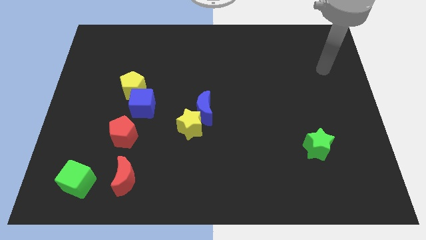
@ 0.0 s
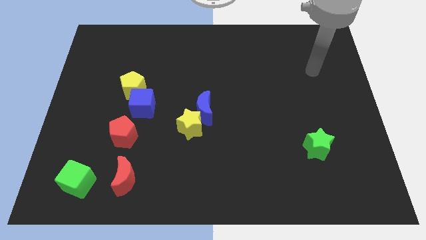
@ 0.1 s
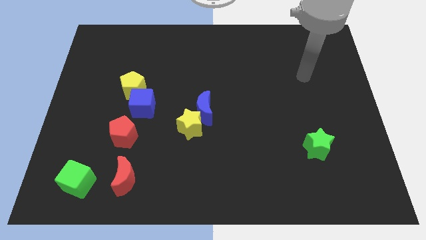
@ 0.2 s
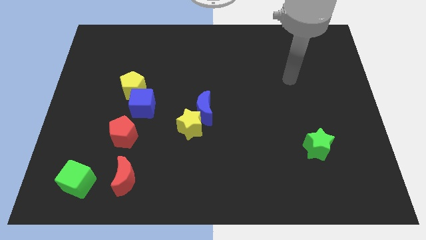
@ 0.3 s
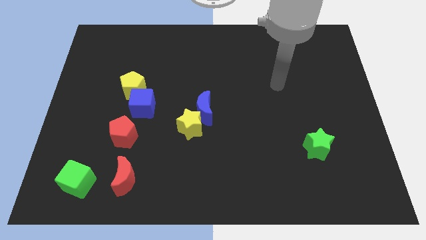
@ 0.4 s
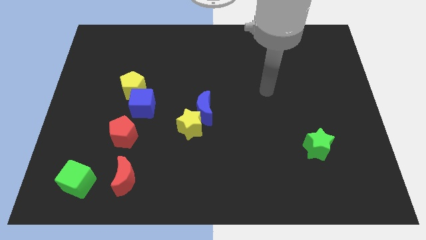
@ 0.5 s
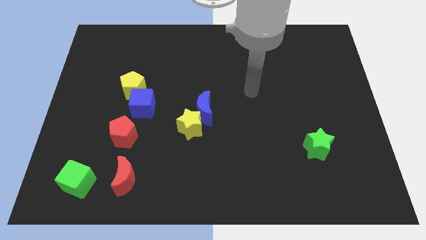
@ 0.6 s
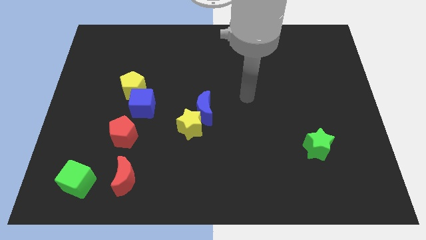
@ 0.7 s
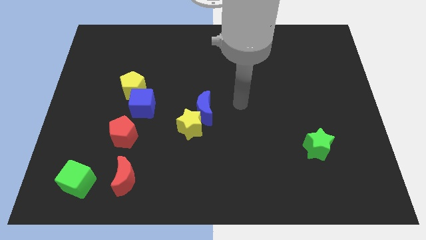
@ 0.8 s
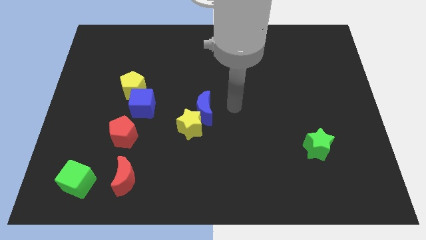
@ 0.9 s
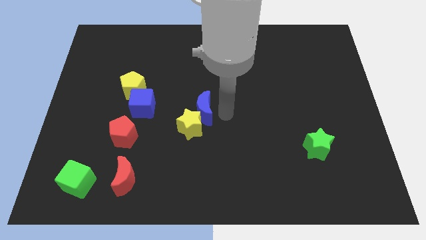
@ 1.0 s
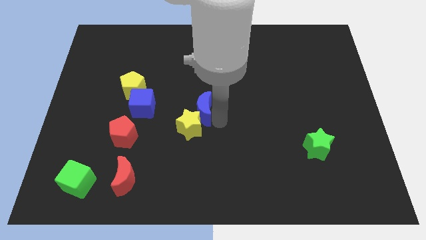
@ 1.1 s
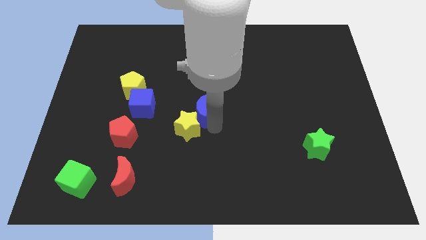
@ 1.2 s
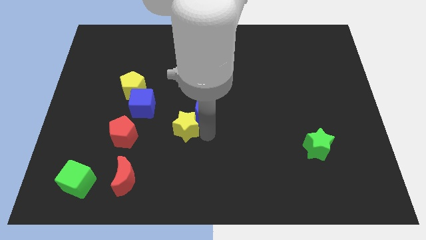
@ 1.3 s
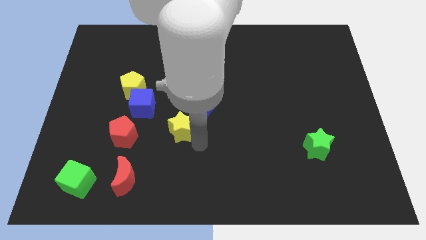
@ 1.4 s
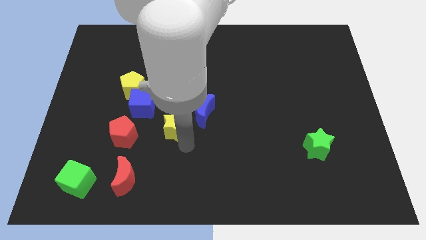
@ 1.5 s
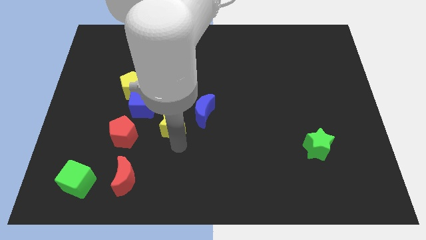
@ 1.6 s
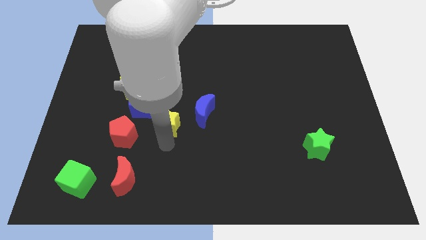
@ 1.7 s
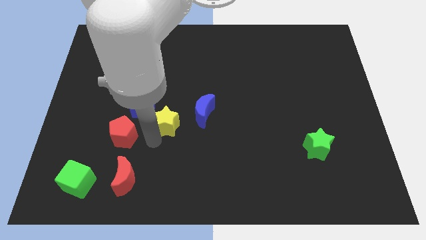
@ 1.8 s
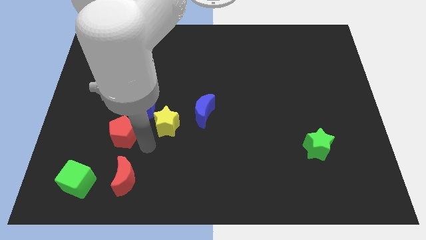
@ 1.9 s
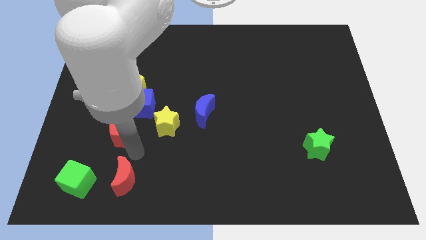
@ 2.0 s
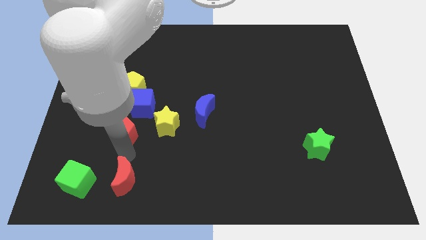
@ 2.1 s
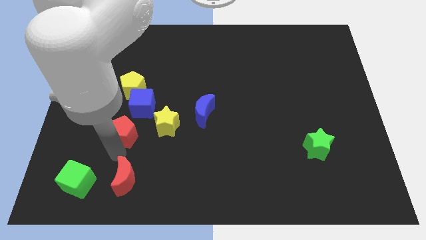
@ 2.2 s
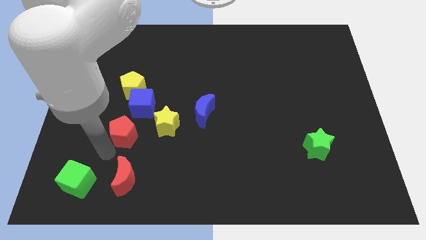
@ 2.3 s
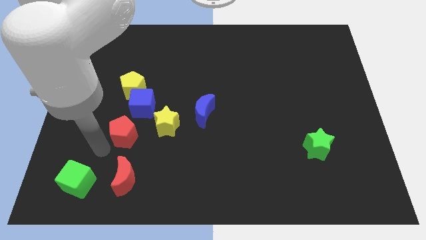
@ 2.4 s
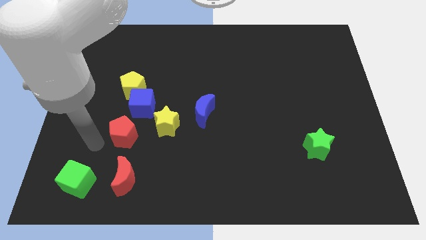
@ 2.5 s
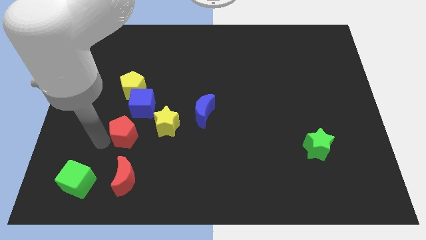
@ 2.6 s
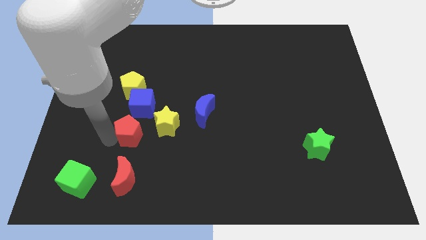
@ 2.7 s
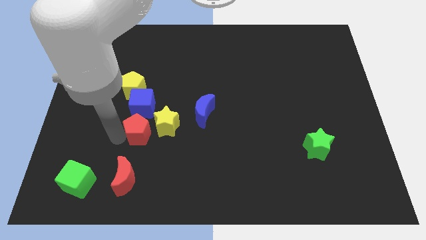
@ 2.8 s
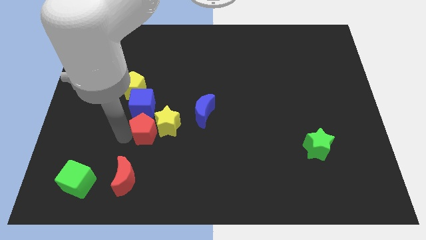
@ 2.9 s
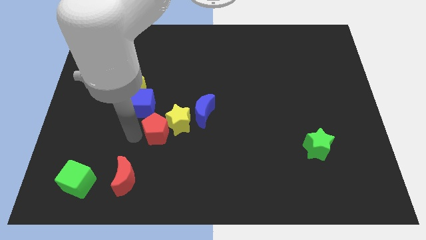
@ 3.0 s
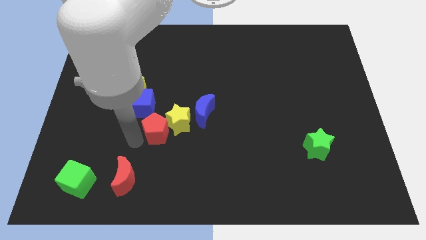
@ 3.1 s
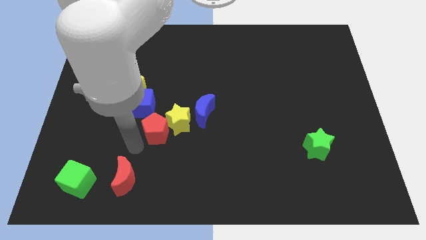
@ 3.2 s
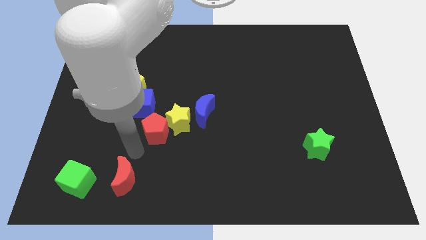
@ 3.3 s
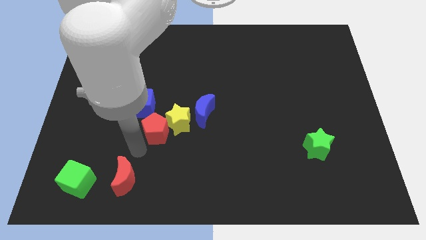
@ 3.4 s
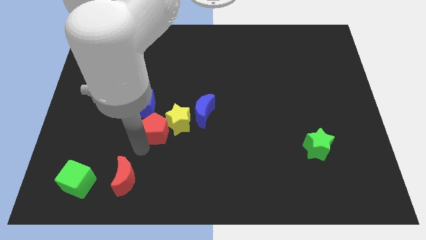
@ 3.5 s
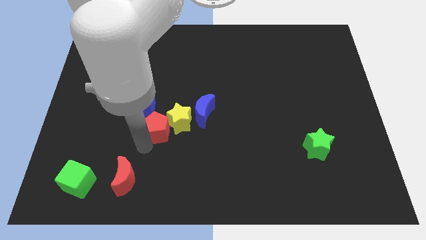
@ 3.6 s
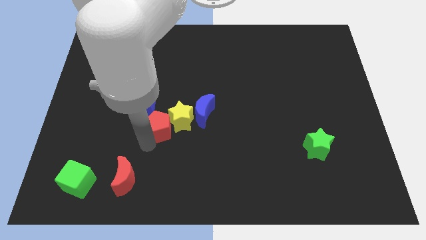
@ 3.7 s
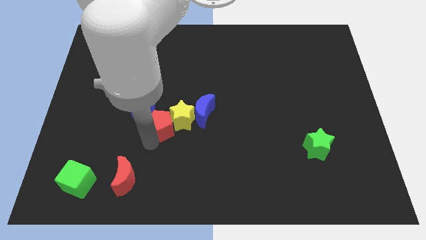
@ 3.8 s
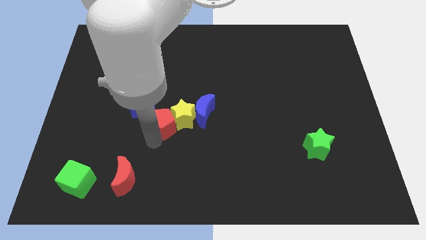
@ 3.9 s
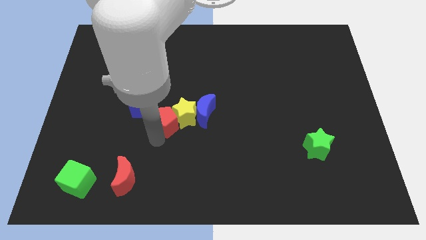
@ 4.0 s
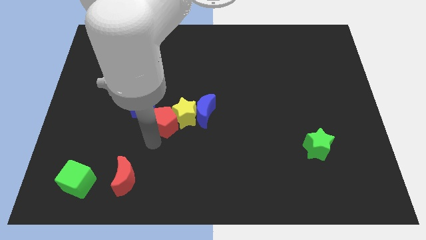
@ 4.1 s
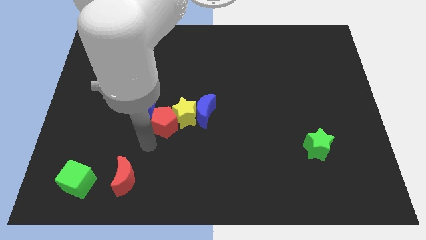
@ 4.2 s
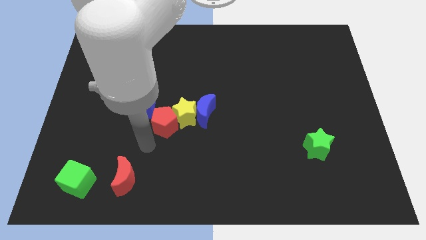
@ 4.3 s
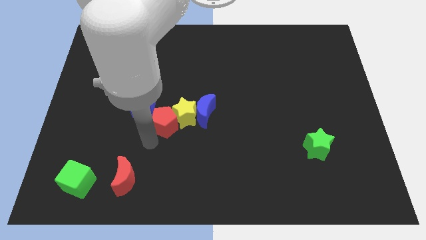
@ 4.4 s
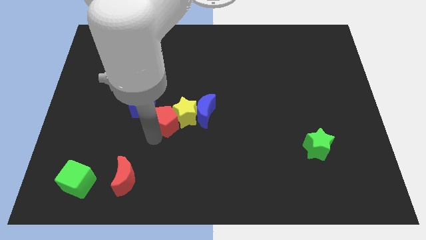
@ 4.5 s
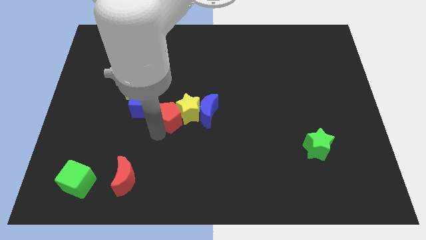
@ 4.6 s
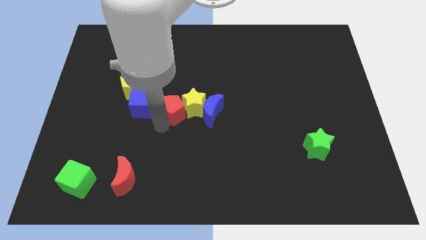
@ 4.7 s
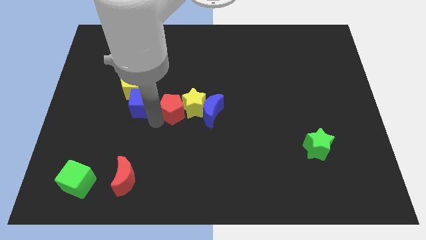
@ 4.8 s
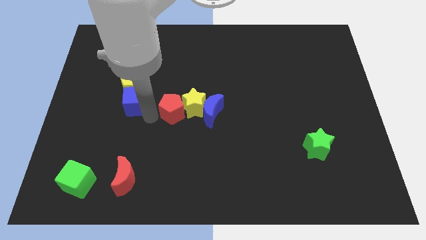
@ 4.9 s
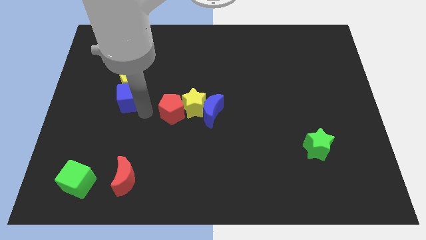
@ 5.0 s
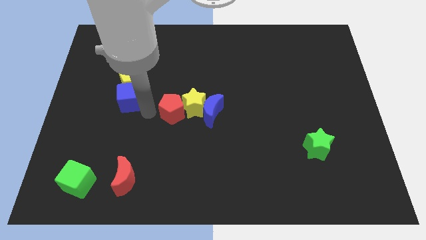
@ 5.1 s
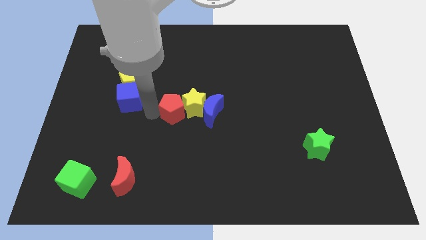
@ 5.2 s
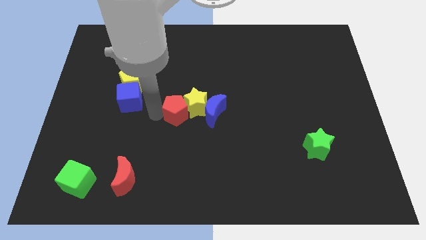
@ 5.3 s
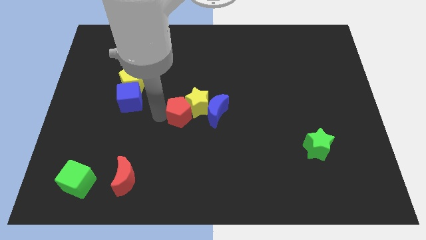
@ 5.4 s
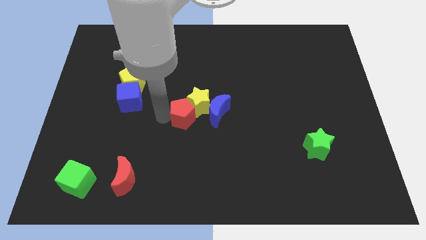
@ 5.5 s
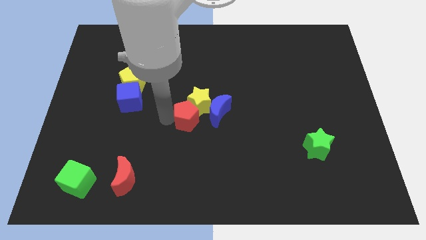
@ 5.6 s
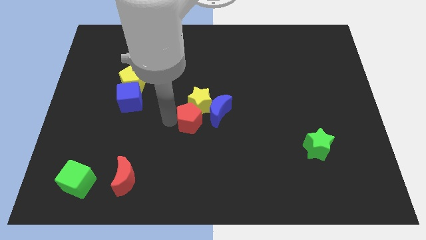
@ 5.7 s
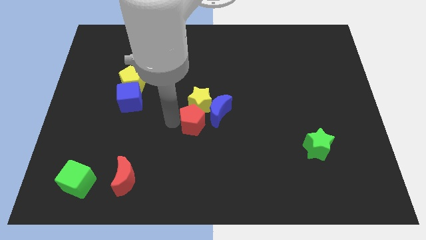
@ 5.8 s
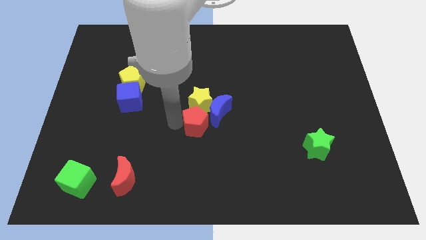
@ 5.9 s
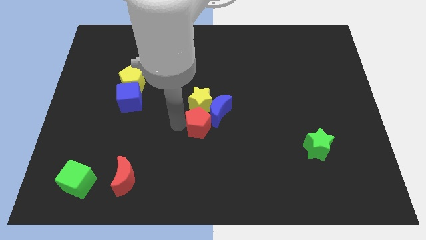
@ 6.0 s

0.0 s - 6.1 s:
put the red pentagon towards the blue moon

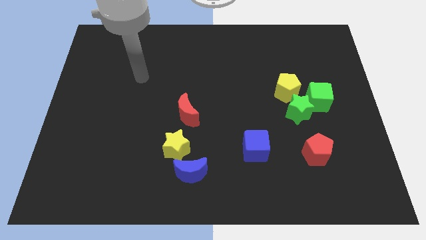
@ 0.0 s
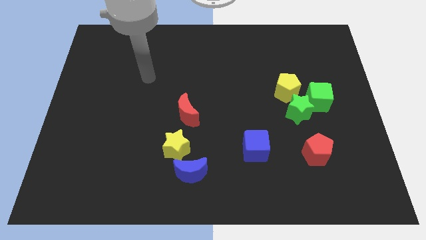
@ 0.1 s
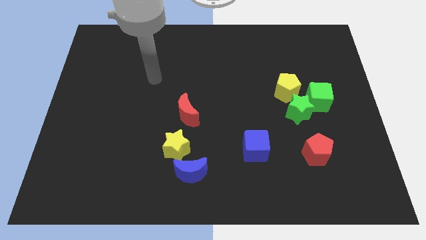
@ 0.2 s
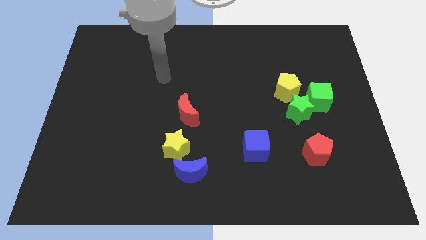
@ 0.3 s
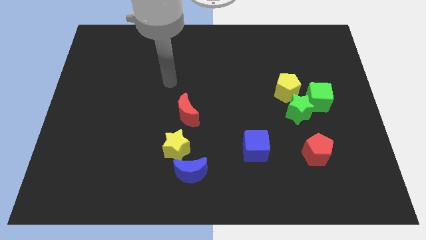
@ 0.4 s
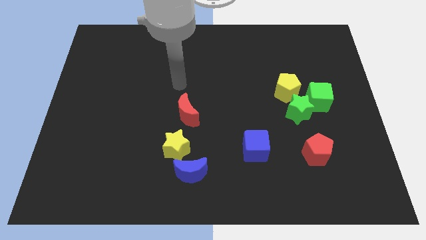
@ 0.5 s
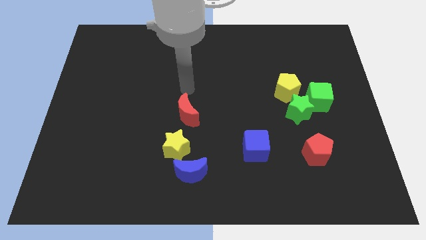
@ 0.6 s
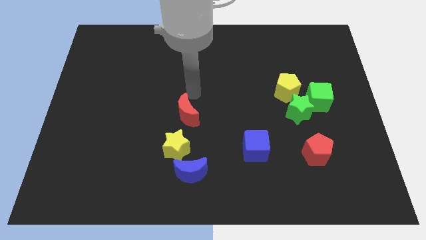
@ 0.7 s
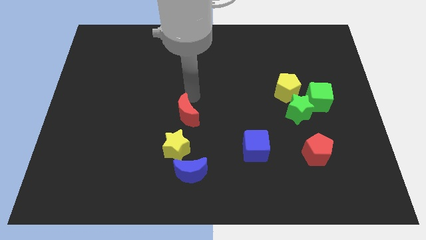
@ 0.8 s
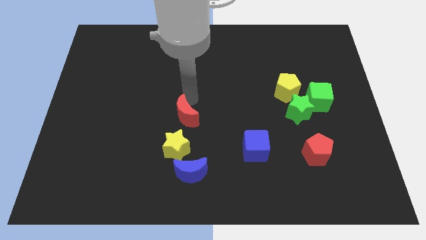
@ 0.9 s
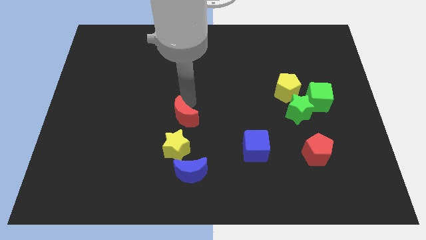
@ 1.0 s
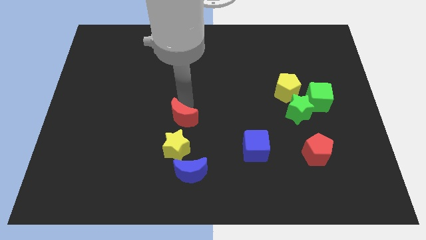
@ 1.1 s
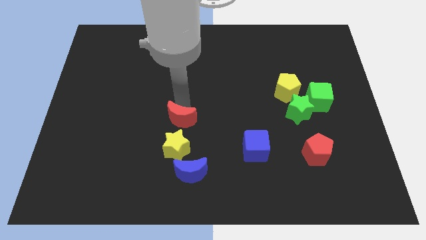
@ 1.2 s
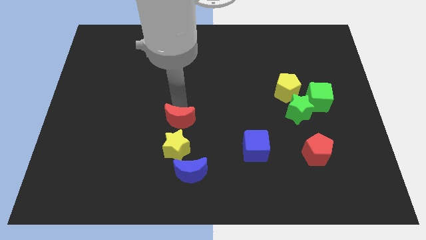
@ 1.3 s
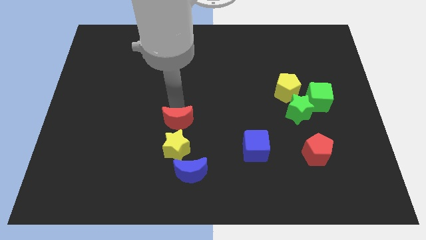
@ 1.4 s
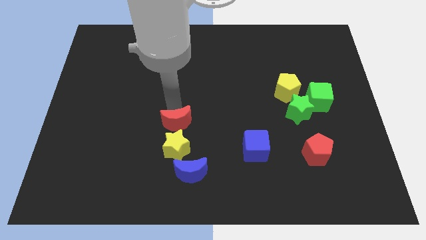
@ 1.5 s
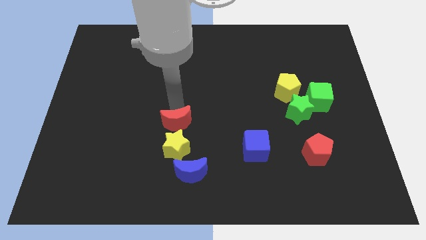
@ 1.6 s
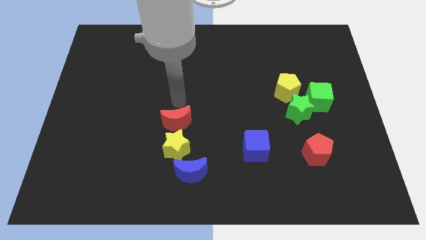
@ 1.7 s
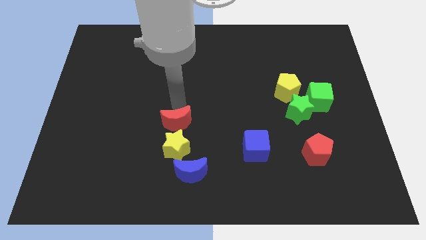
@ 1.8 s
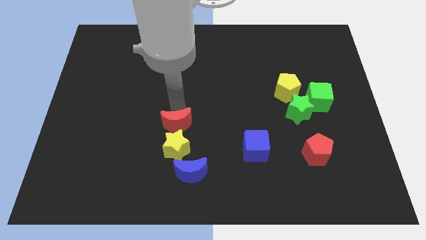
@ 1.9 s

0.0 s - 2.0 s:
push the red moon to the yellow star
